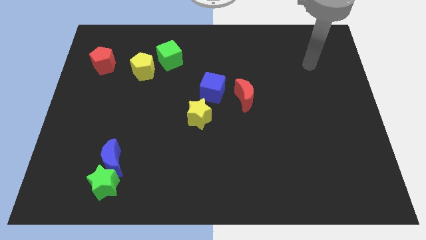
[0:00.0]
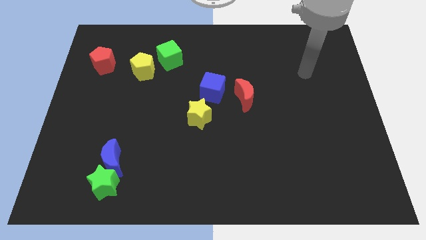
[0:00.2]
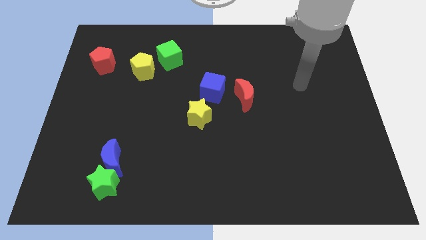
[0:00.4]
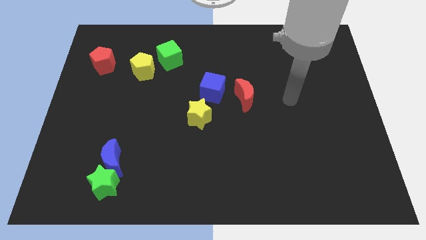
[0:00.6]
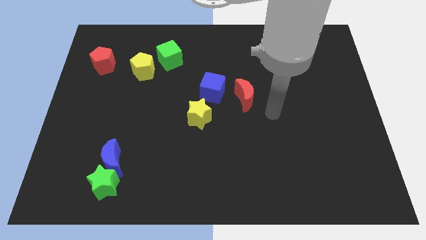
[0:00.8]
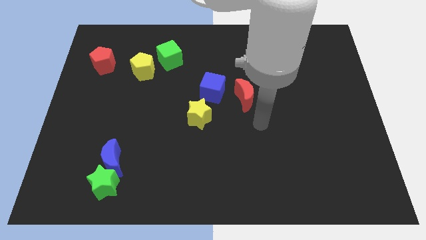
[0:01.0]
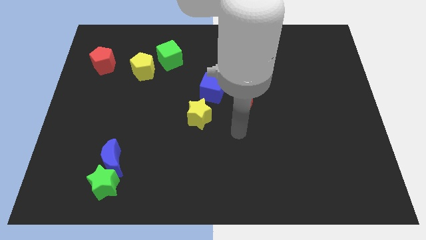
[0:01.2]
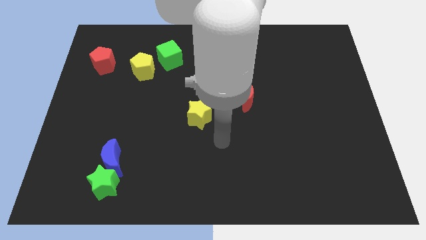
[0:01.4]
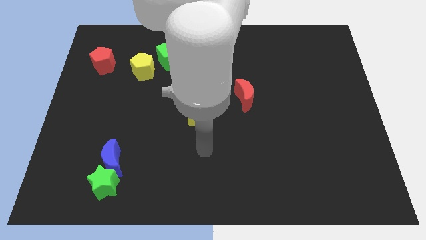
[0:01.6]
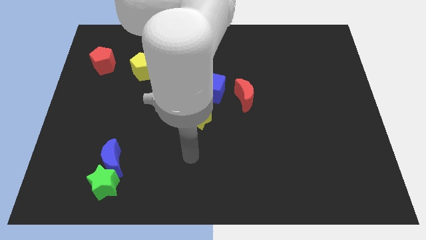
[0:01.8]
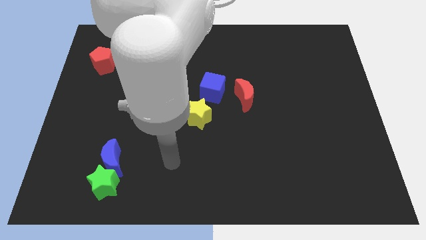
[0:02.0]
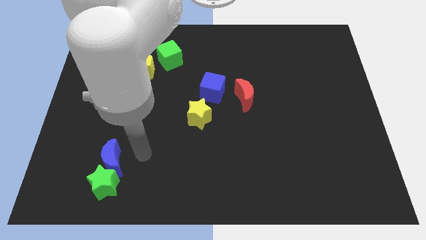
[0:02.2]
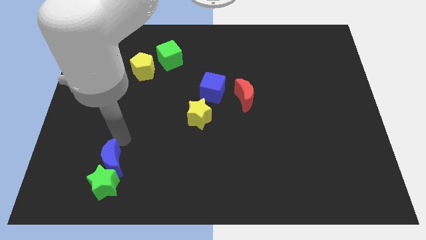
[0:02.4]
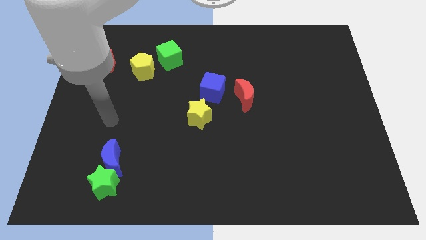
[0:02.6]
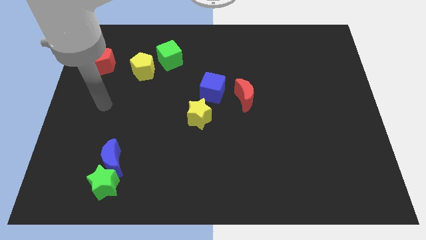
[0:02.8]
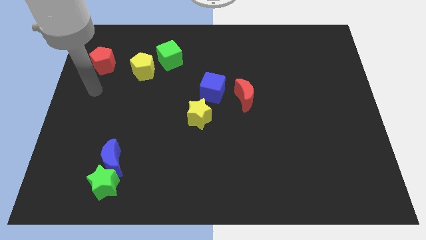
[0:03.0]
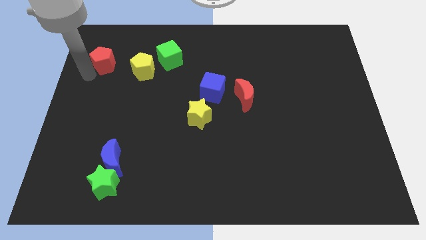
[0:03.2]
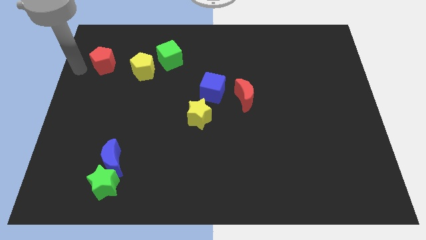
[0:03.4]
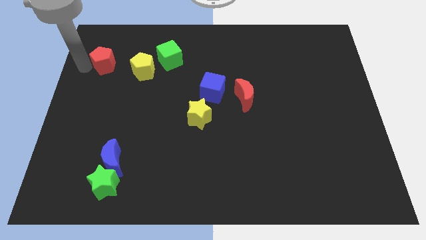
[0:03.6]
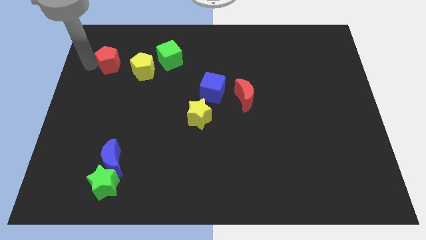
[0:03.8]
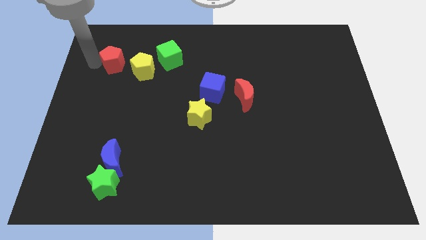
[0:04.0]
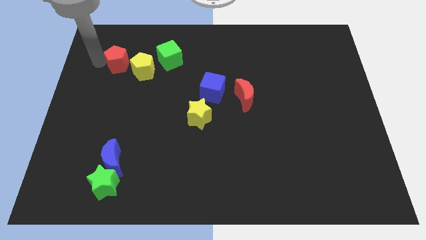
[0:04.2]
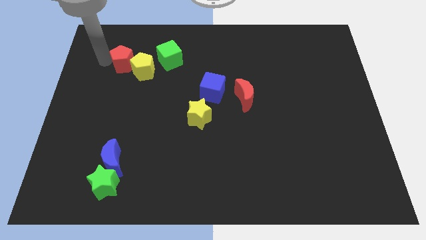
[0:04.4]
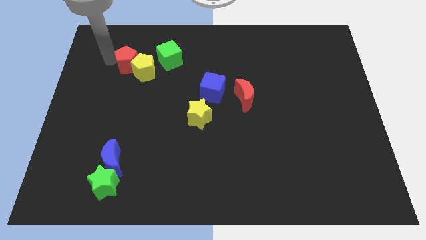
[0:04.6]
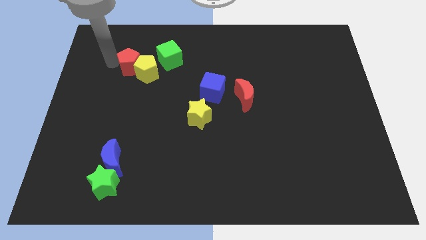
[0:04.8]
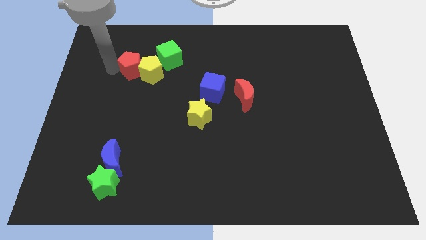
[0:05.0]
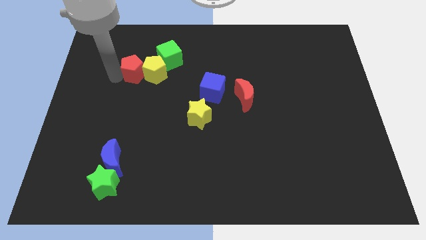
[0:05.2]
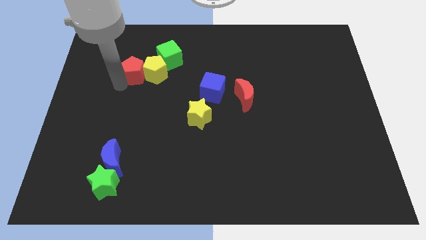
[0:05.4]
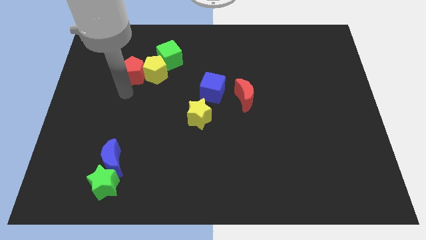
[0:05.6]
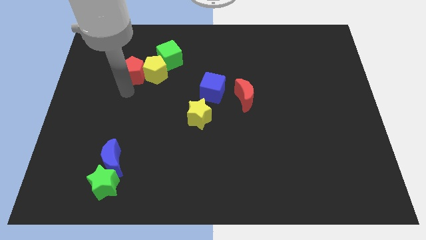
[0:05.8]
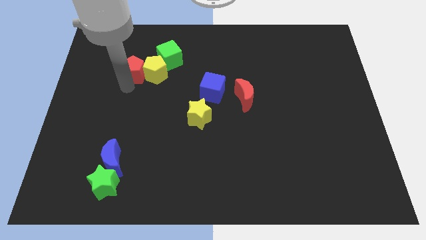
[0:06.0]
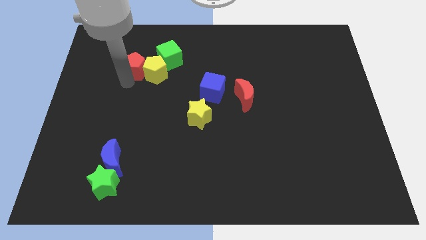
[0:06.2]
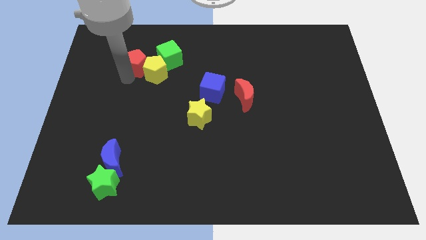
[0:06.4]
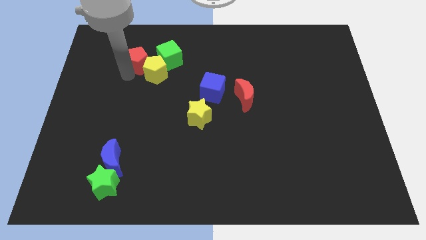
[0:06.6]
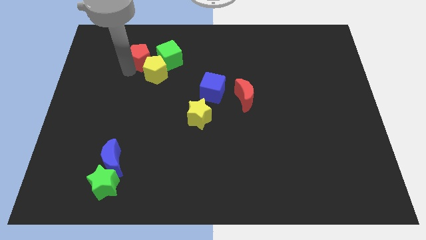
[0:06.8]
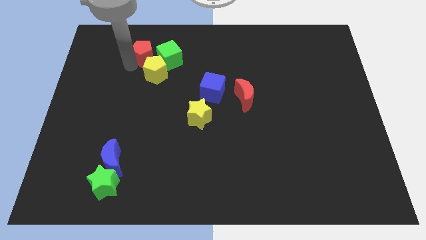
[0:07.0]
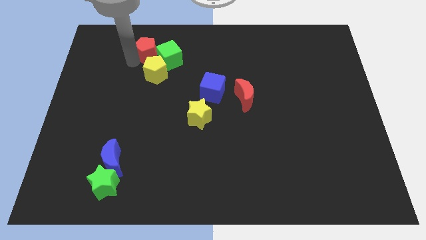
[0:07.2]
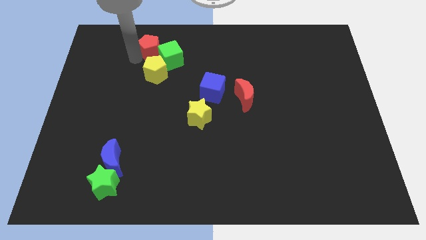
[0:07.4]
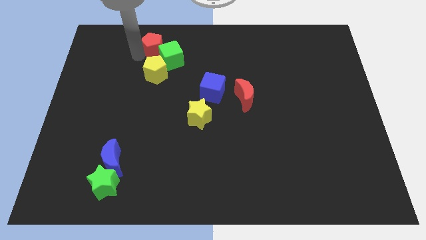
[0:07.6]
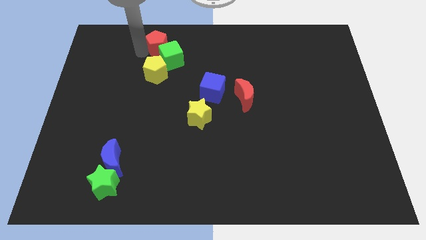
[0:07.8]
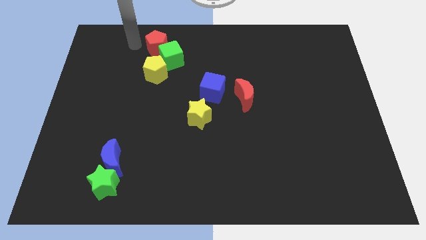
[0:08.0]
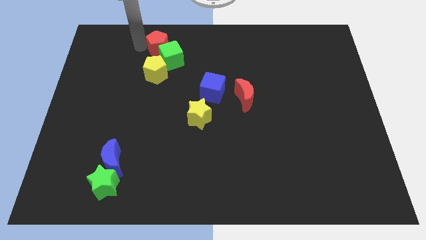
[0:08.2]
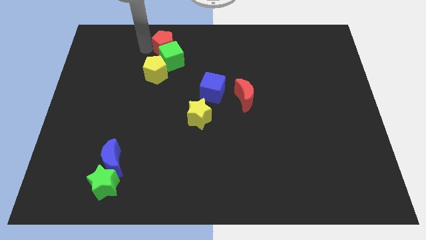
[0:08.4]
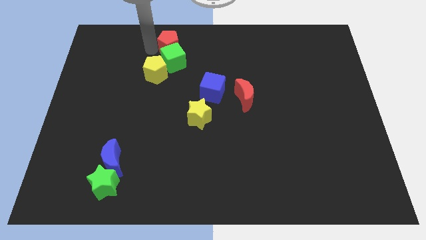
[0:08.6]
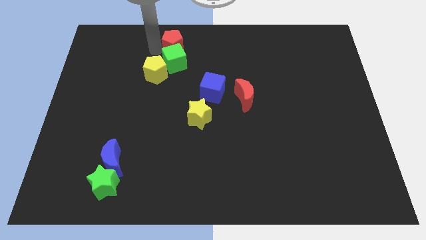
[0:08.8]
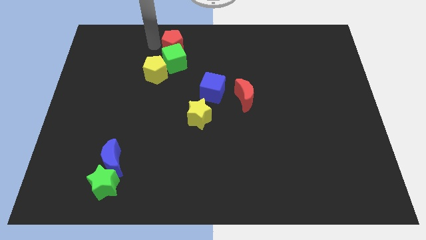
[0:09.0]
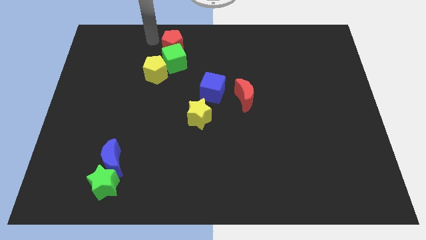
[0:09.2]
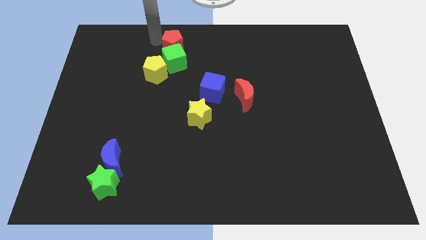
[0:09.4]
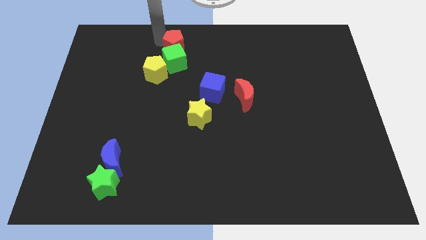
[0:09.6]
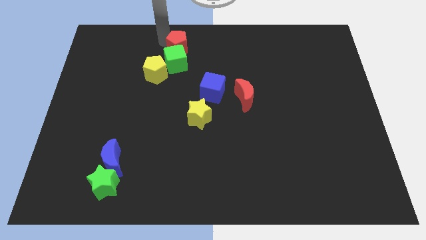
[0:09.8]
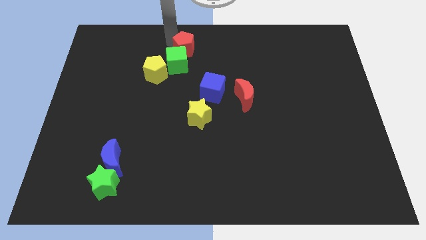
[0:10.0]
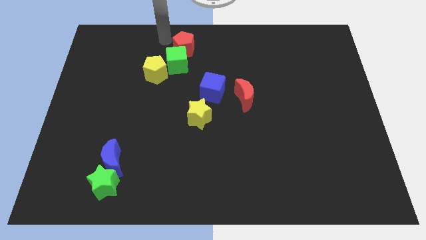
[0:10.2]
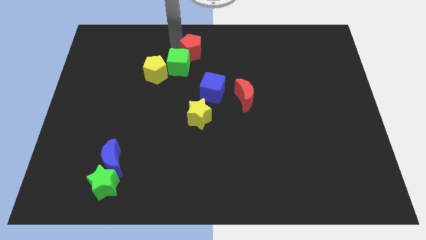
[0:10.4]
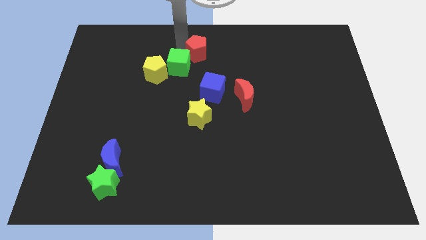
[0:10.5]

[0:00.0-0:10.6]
put the red pentagon to the top of the blue cube

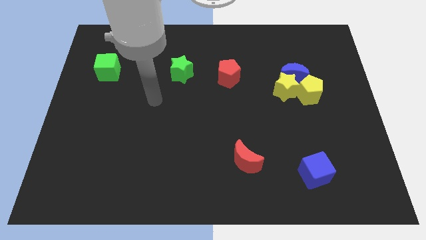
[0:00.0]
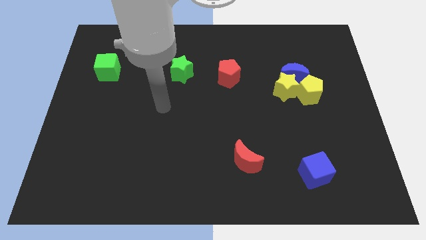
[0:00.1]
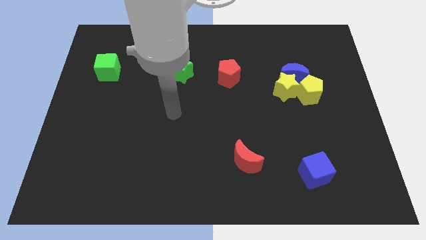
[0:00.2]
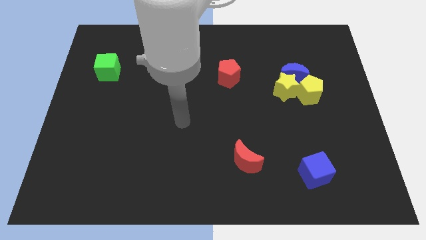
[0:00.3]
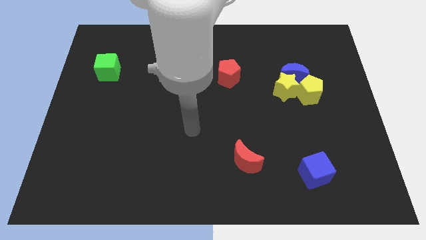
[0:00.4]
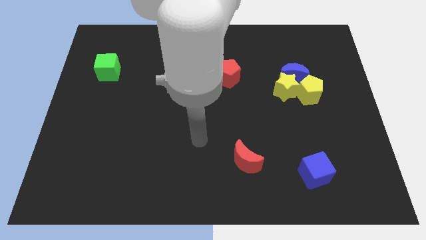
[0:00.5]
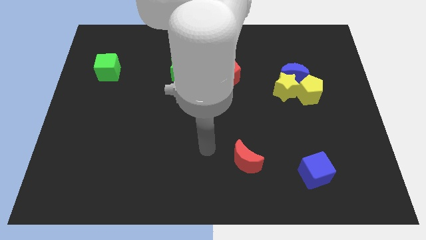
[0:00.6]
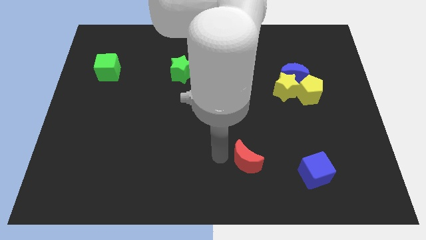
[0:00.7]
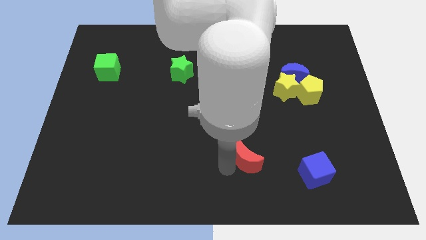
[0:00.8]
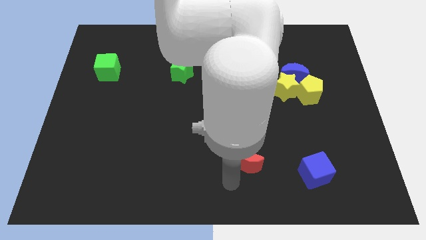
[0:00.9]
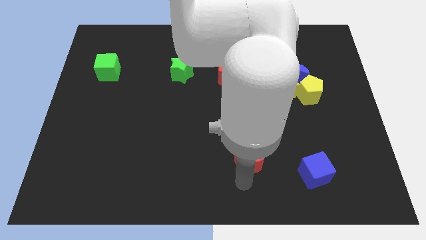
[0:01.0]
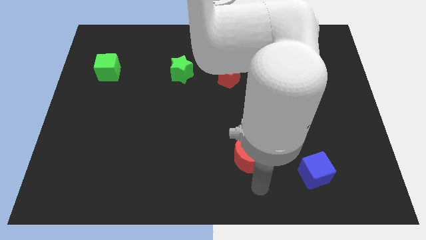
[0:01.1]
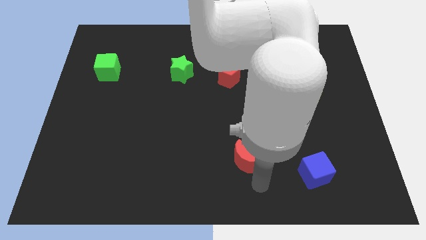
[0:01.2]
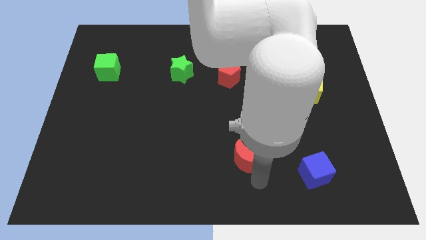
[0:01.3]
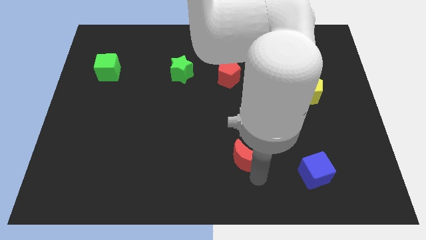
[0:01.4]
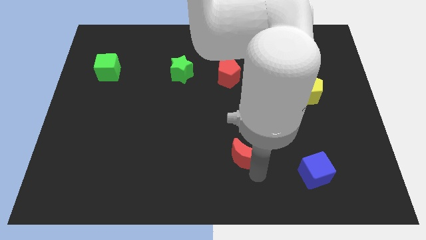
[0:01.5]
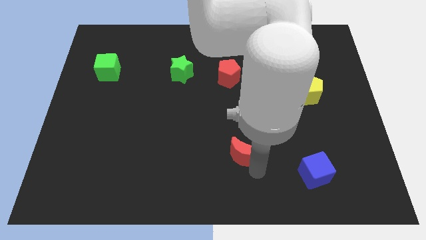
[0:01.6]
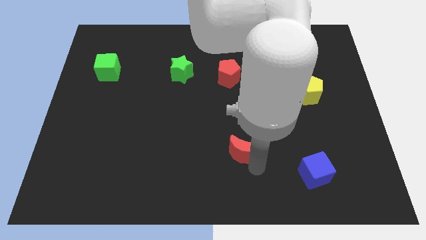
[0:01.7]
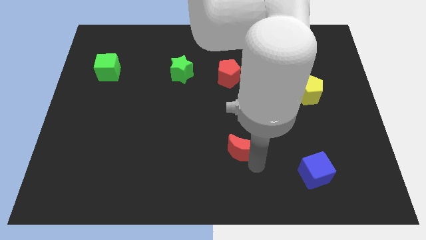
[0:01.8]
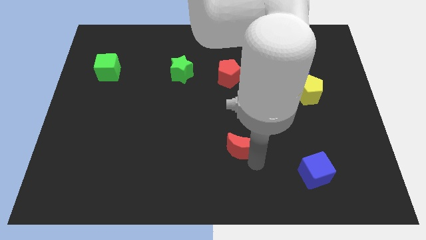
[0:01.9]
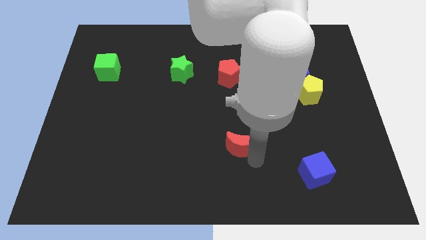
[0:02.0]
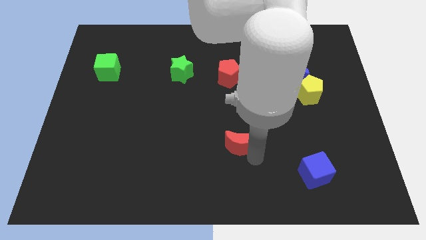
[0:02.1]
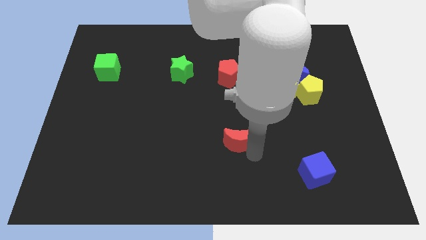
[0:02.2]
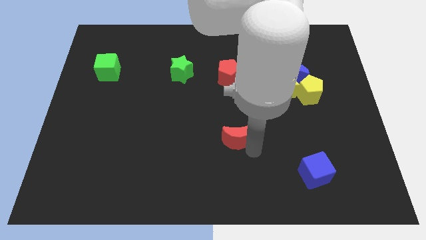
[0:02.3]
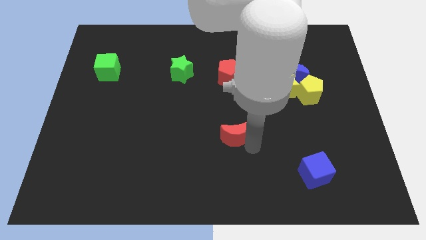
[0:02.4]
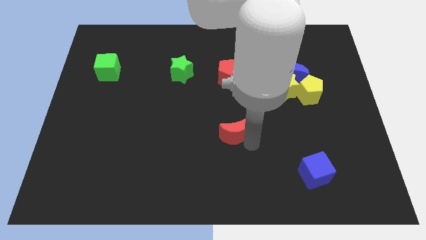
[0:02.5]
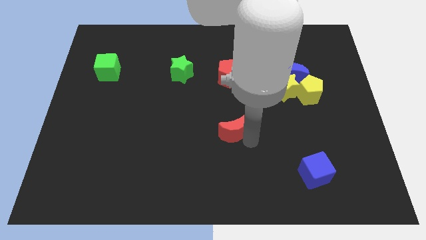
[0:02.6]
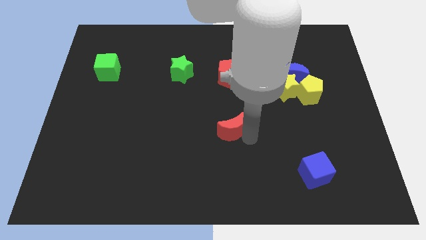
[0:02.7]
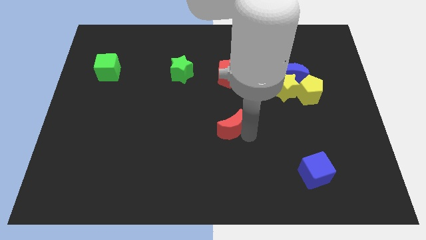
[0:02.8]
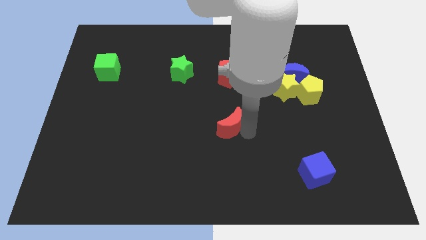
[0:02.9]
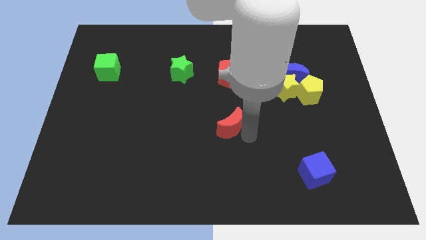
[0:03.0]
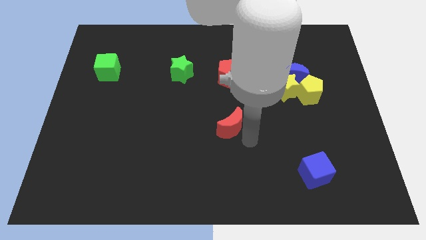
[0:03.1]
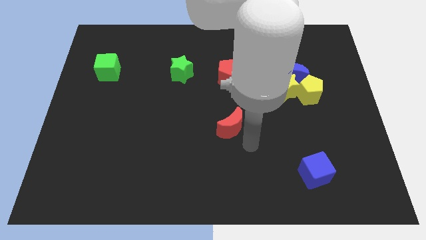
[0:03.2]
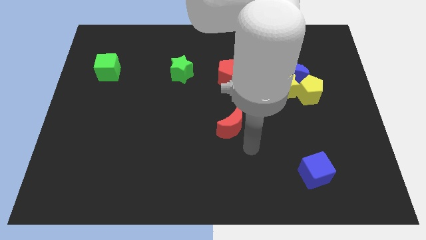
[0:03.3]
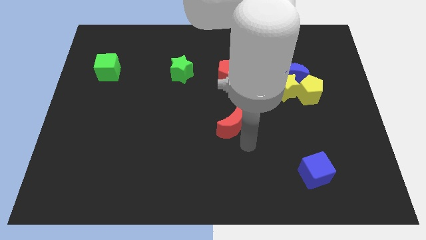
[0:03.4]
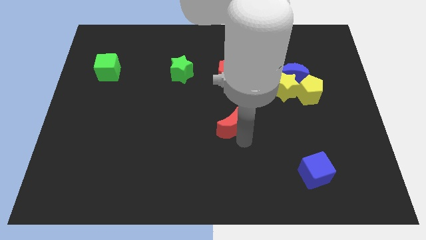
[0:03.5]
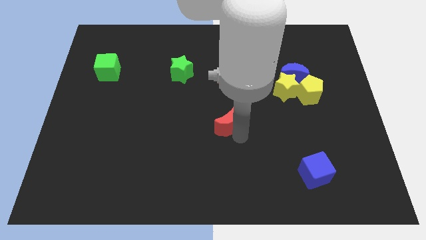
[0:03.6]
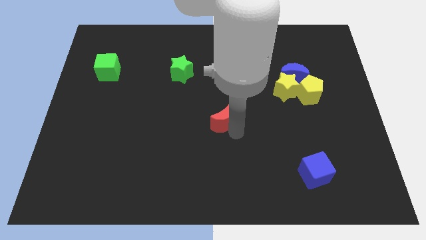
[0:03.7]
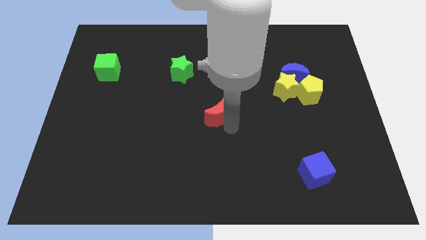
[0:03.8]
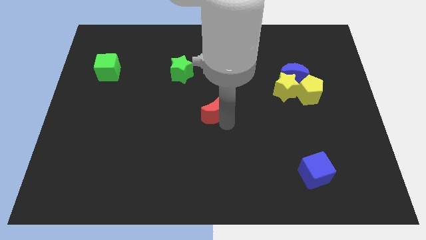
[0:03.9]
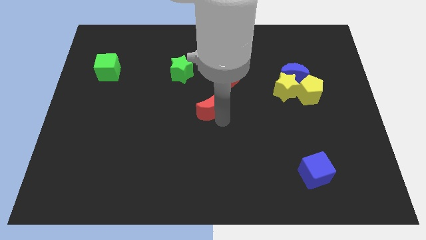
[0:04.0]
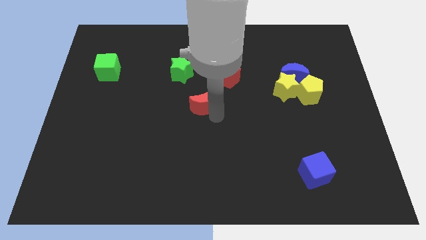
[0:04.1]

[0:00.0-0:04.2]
push the red moon to the bottom right side of the green star
